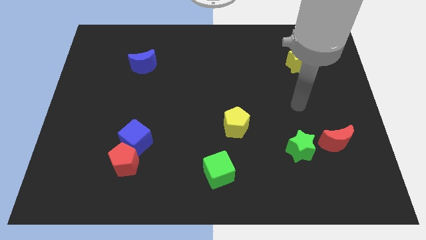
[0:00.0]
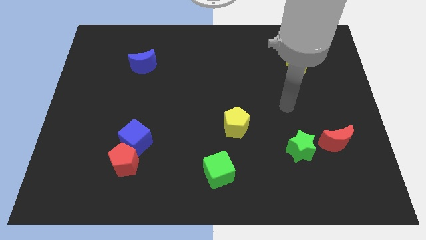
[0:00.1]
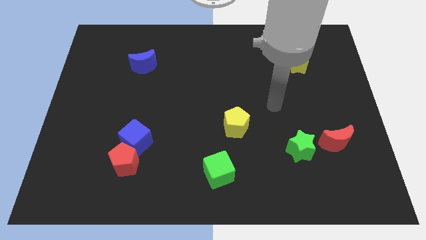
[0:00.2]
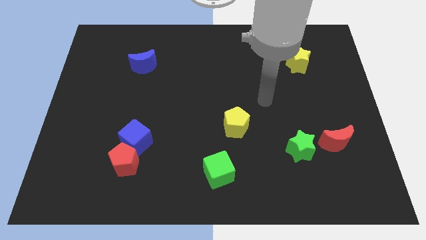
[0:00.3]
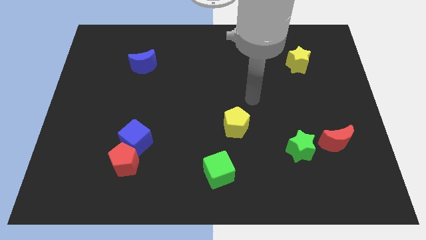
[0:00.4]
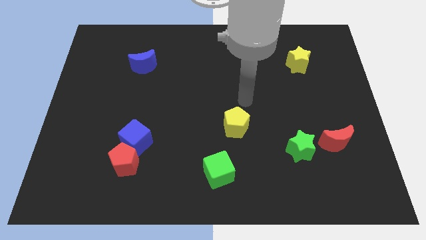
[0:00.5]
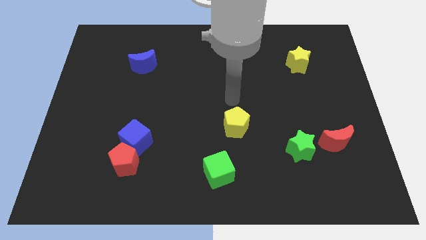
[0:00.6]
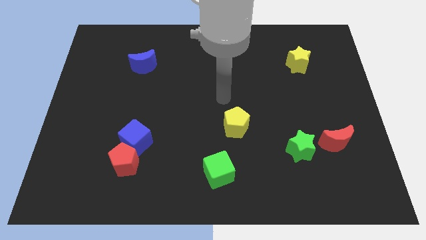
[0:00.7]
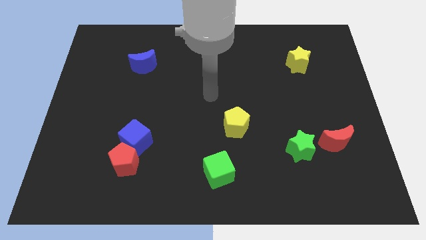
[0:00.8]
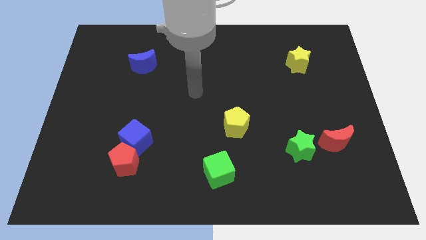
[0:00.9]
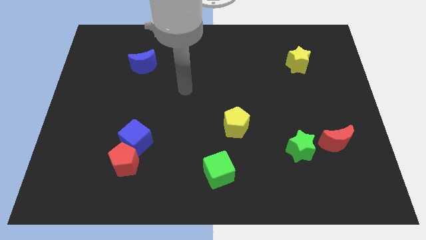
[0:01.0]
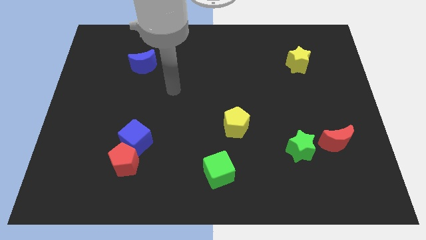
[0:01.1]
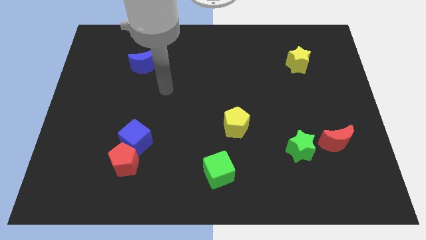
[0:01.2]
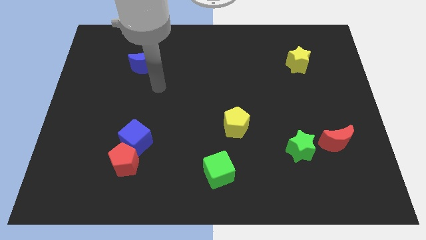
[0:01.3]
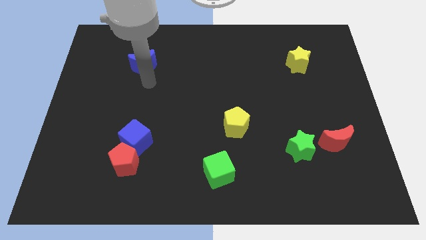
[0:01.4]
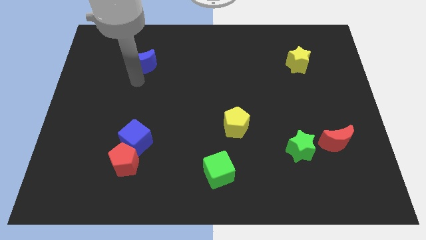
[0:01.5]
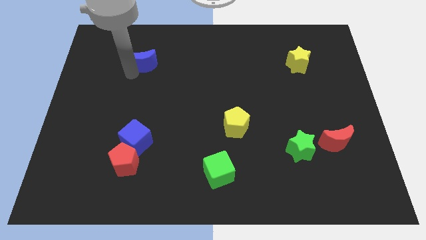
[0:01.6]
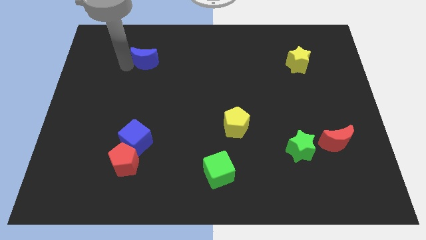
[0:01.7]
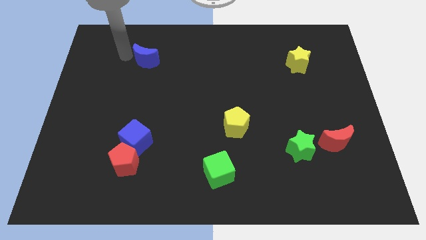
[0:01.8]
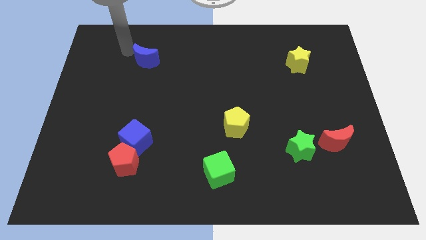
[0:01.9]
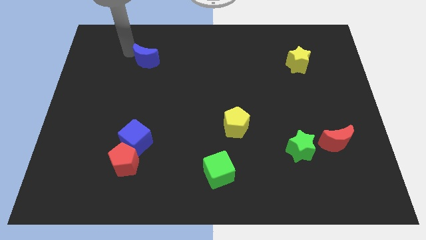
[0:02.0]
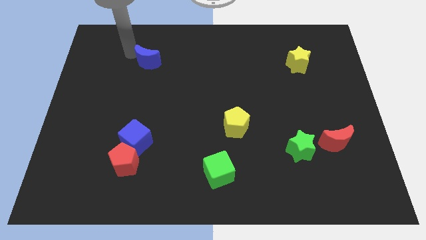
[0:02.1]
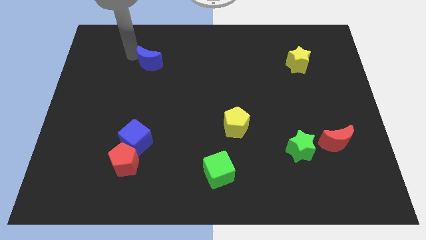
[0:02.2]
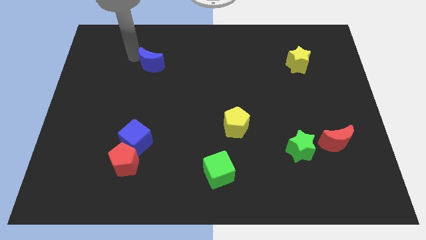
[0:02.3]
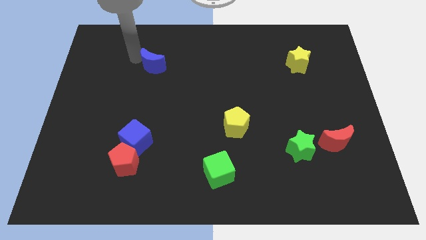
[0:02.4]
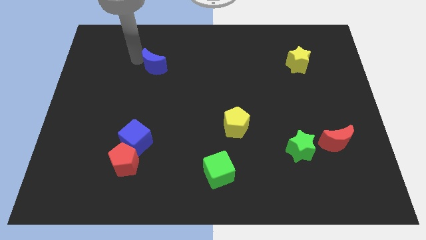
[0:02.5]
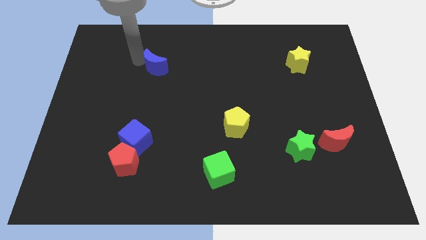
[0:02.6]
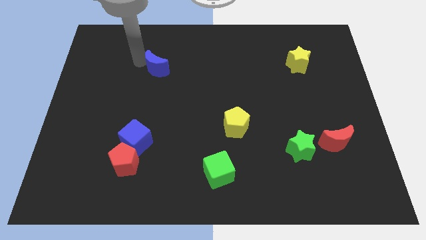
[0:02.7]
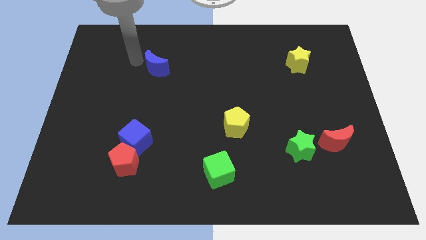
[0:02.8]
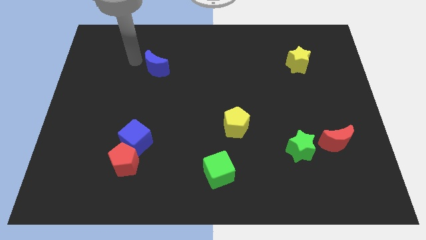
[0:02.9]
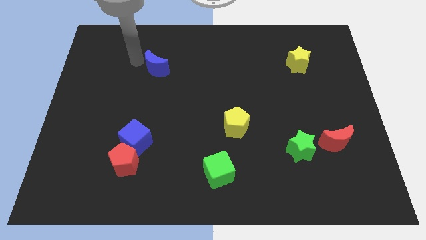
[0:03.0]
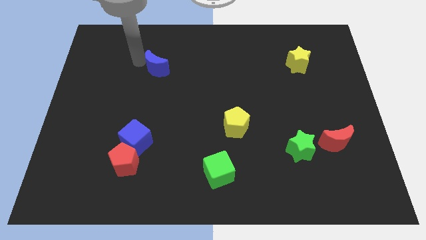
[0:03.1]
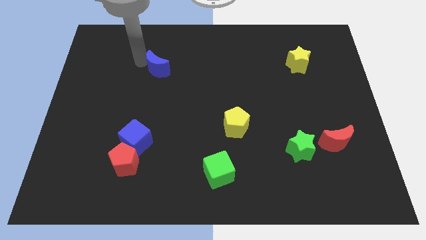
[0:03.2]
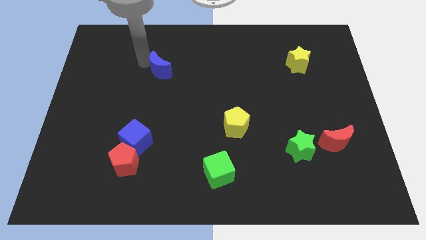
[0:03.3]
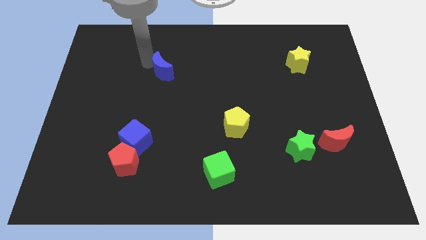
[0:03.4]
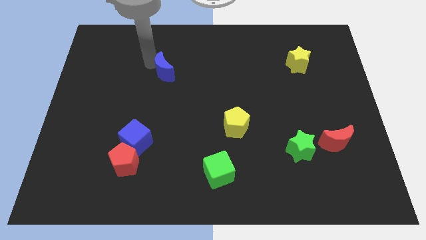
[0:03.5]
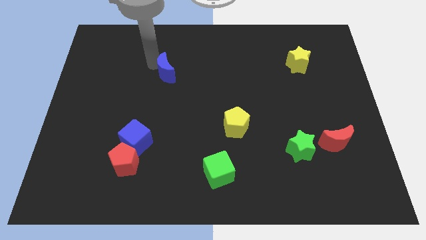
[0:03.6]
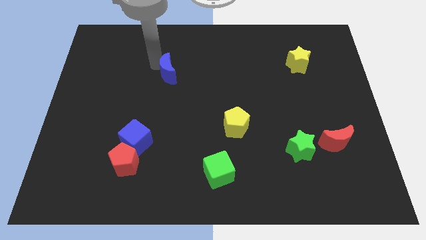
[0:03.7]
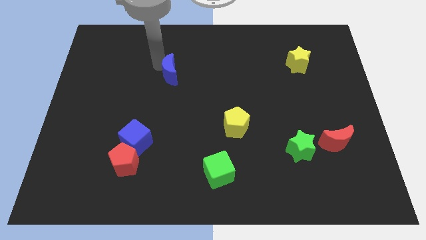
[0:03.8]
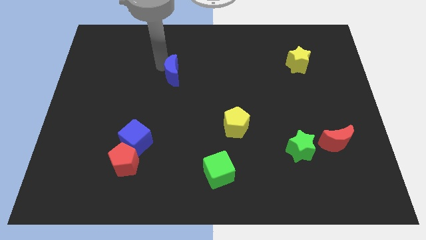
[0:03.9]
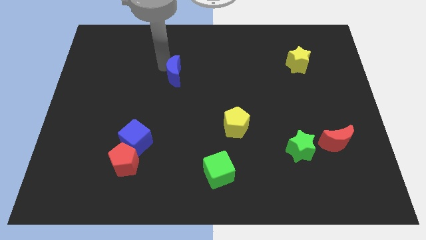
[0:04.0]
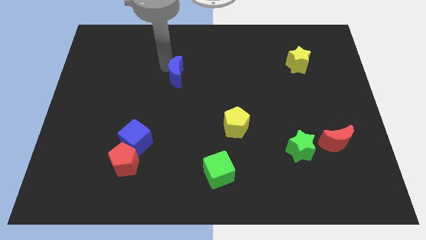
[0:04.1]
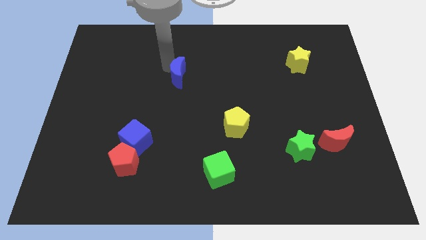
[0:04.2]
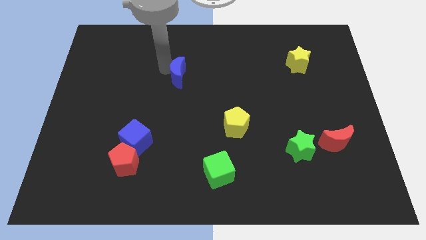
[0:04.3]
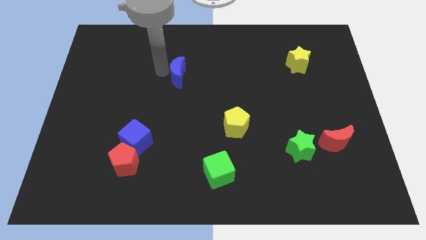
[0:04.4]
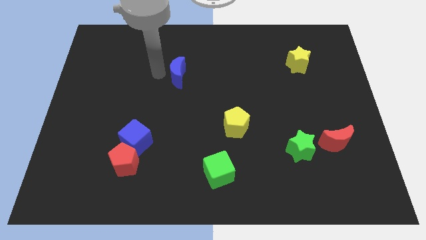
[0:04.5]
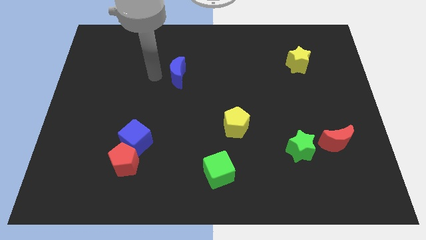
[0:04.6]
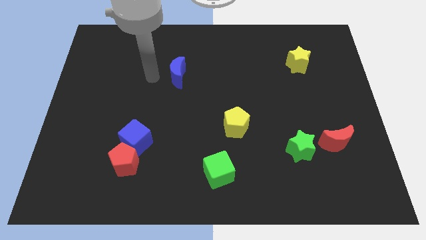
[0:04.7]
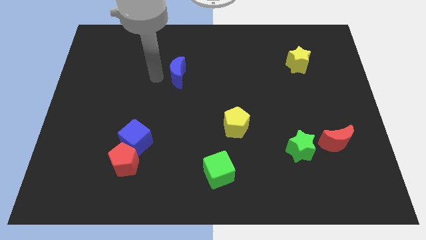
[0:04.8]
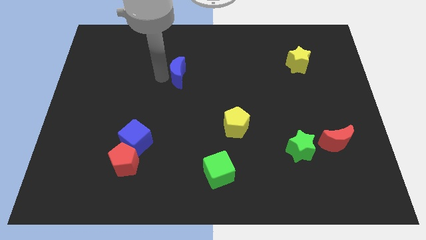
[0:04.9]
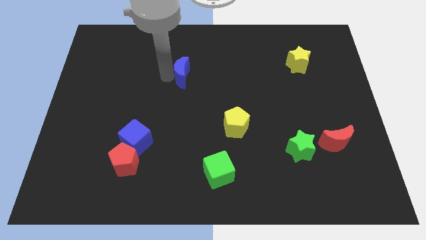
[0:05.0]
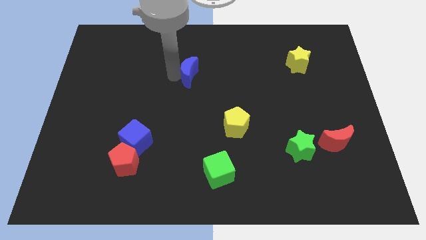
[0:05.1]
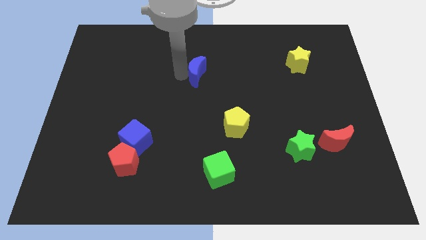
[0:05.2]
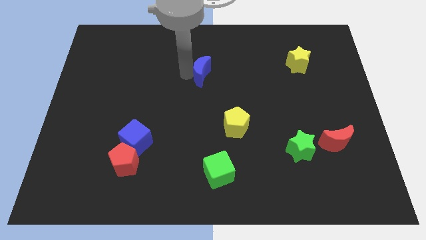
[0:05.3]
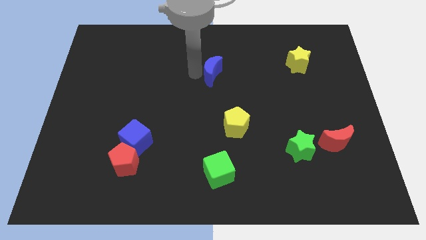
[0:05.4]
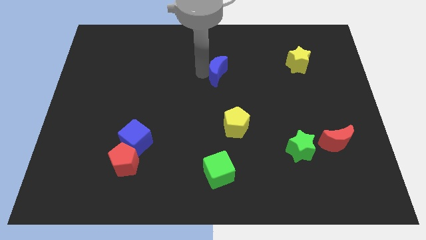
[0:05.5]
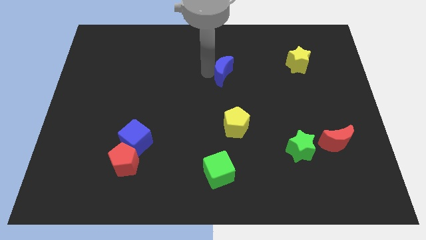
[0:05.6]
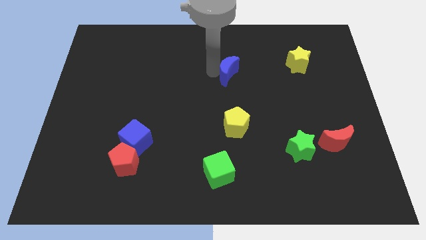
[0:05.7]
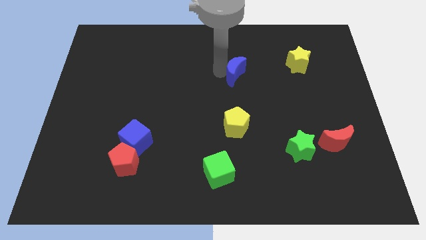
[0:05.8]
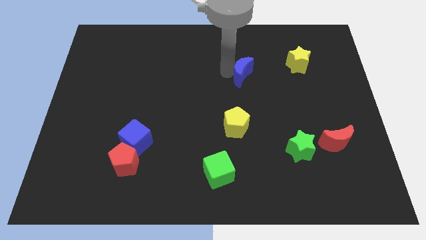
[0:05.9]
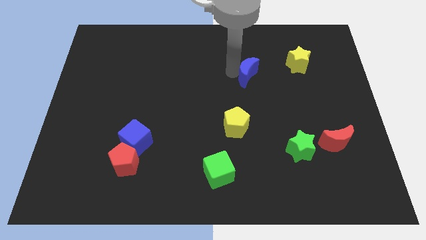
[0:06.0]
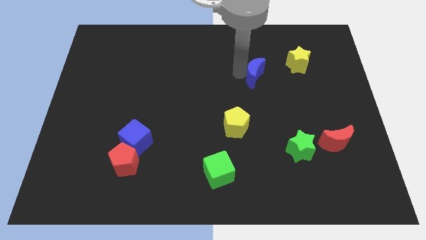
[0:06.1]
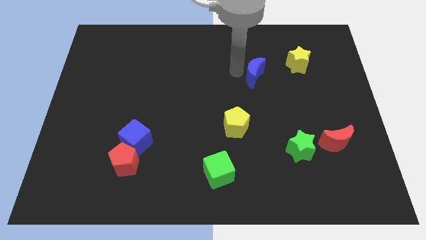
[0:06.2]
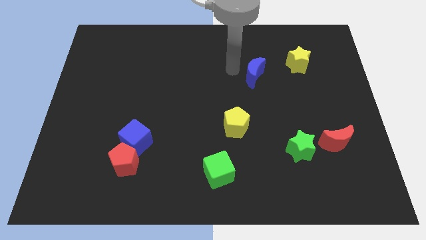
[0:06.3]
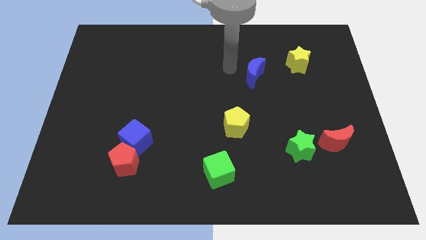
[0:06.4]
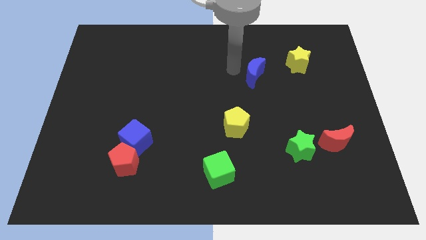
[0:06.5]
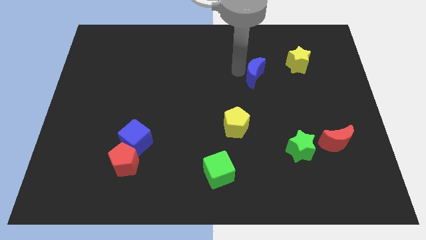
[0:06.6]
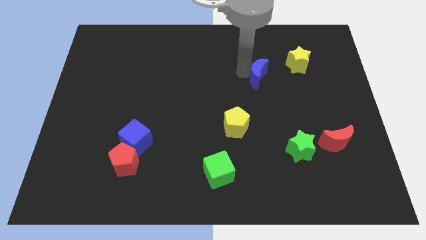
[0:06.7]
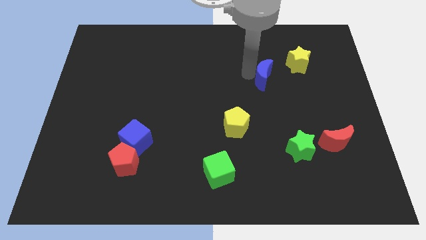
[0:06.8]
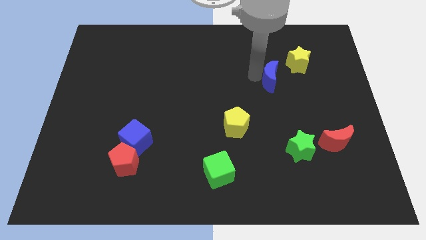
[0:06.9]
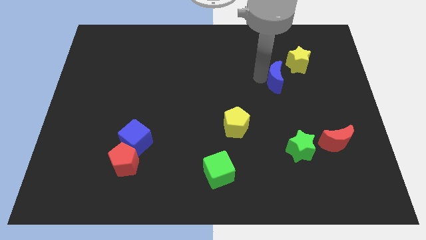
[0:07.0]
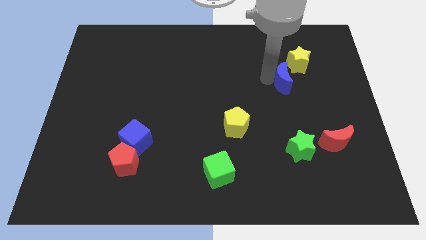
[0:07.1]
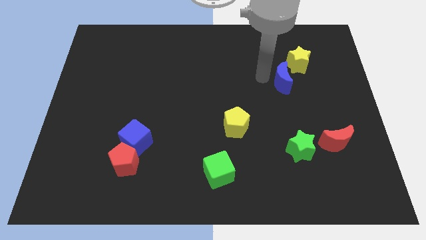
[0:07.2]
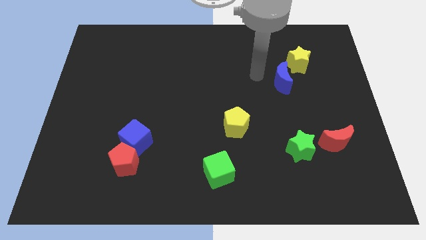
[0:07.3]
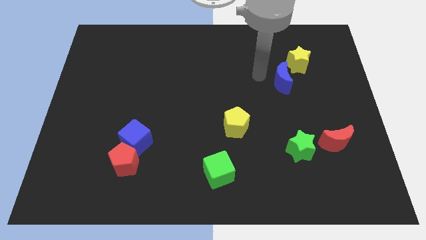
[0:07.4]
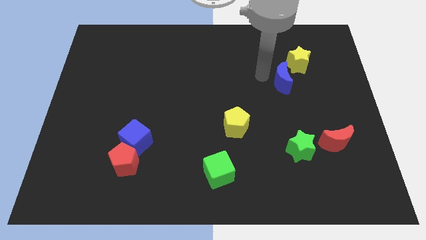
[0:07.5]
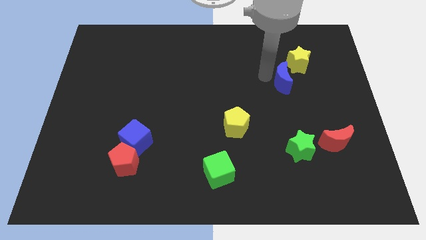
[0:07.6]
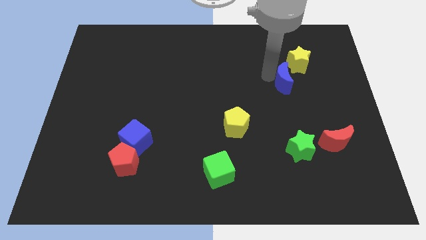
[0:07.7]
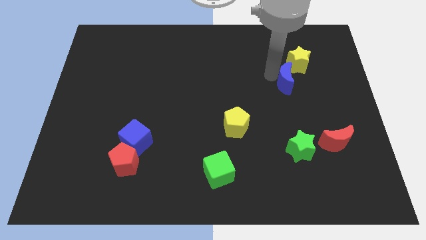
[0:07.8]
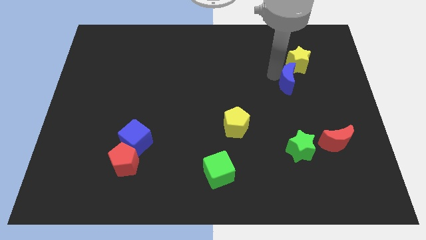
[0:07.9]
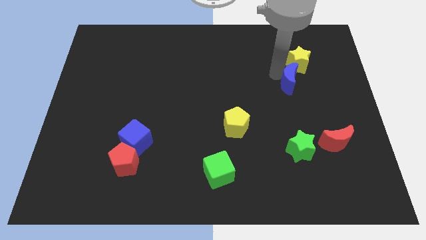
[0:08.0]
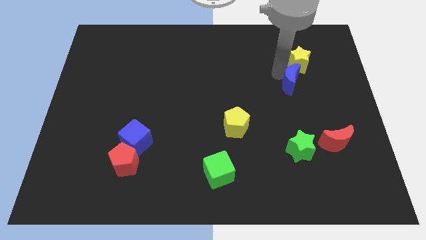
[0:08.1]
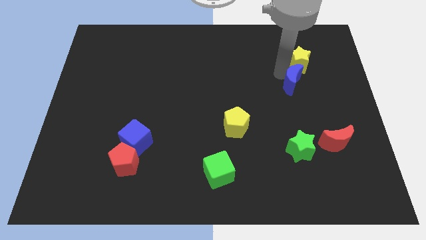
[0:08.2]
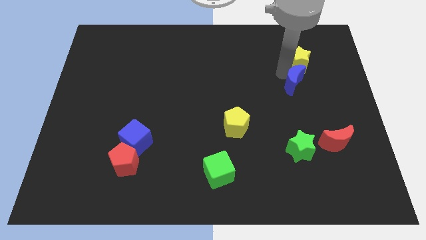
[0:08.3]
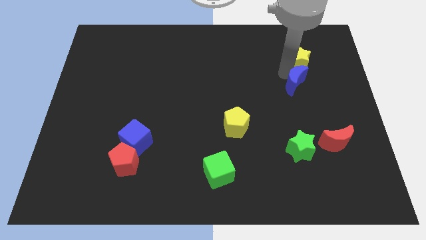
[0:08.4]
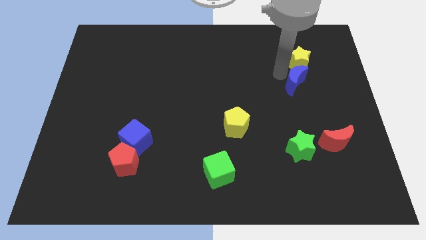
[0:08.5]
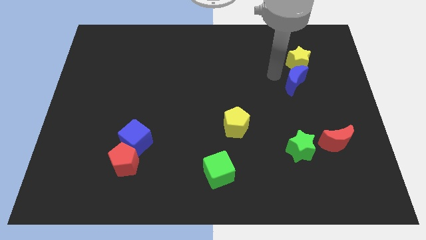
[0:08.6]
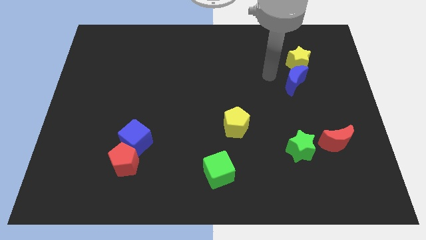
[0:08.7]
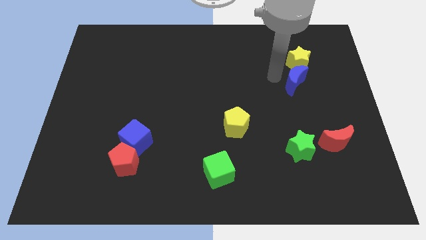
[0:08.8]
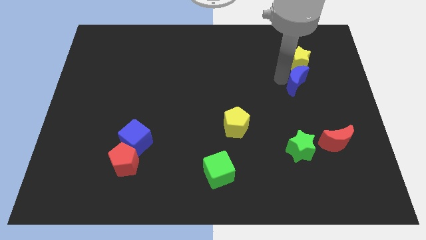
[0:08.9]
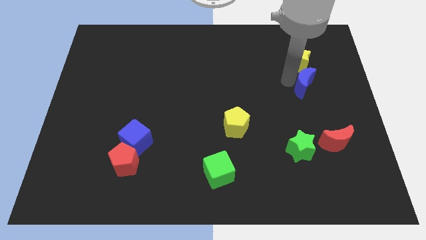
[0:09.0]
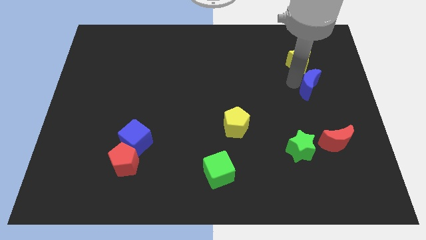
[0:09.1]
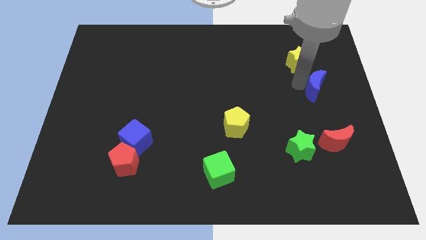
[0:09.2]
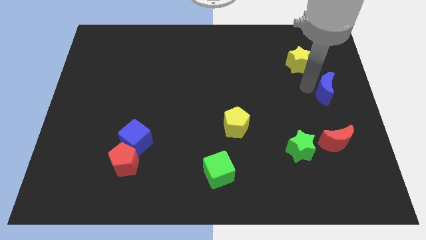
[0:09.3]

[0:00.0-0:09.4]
slide the blue moon to the right side
